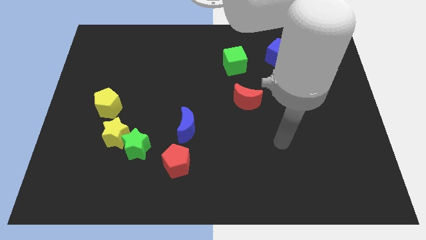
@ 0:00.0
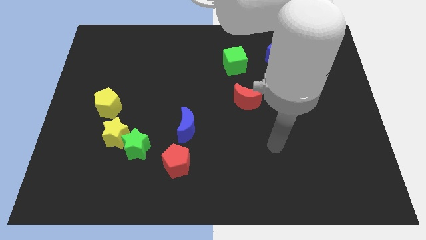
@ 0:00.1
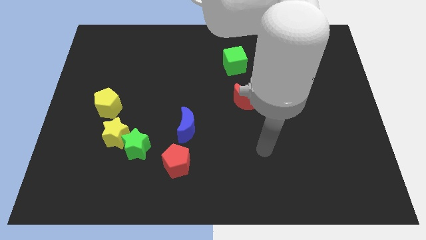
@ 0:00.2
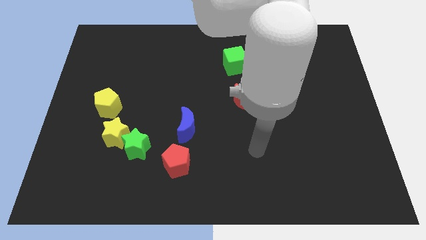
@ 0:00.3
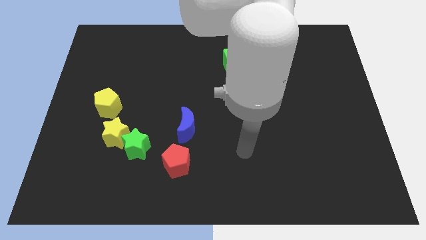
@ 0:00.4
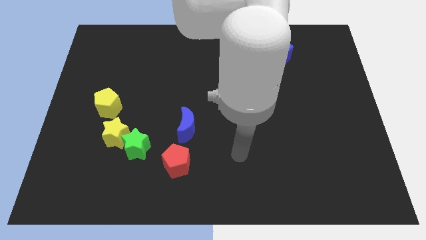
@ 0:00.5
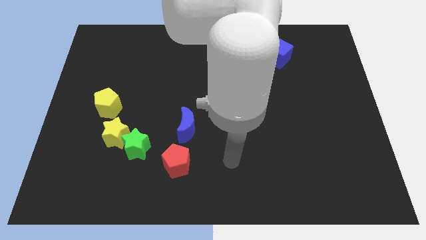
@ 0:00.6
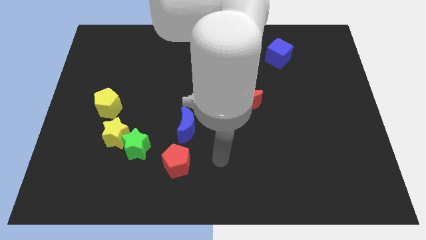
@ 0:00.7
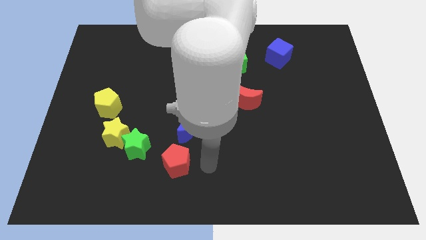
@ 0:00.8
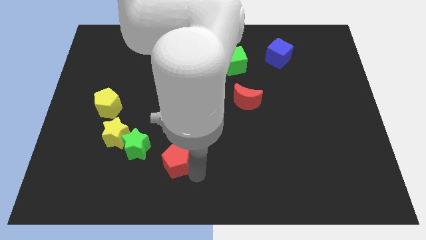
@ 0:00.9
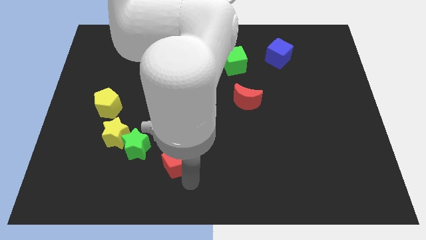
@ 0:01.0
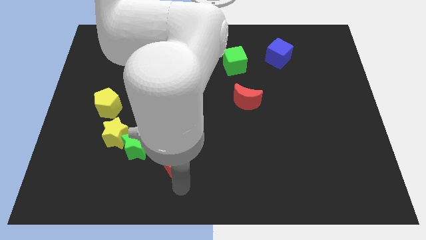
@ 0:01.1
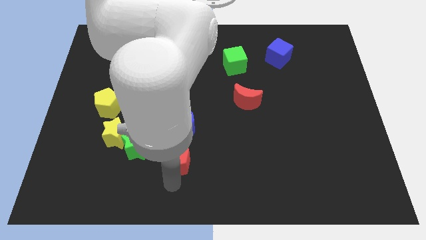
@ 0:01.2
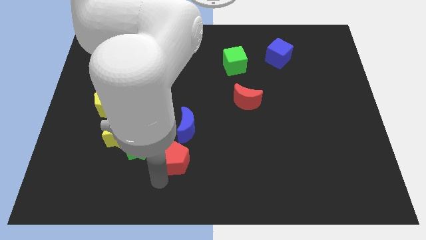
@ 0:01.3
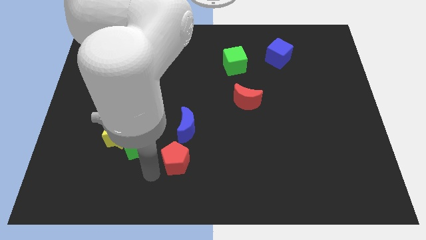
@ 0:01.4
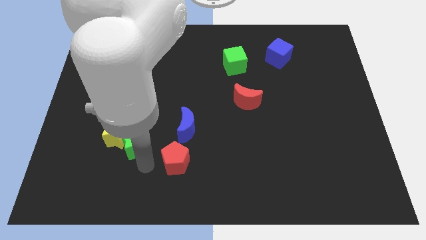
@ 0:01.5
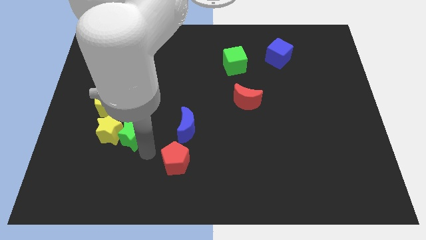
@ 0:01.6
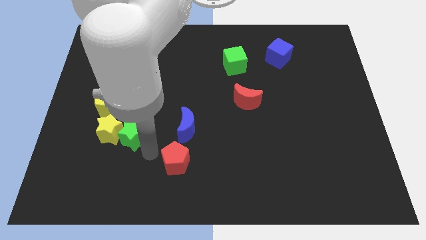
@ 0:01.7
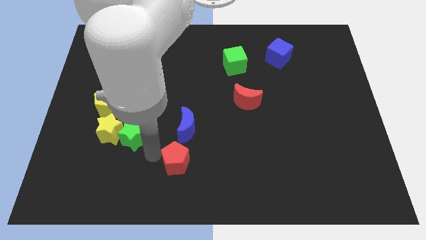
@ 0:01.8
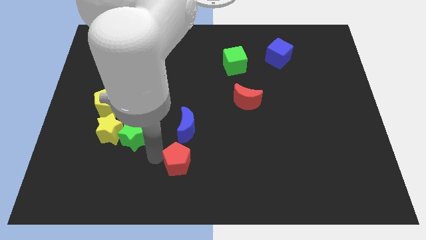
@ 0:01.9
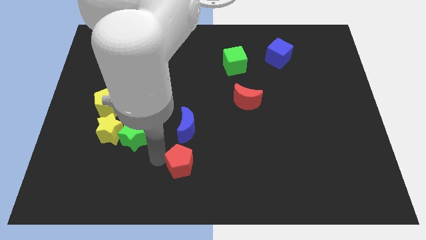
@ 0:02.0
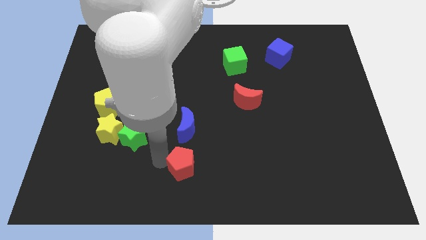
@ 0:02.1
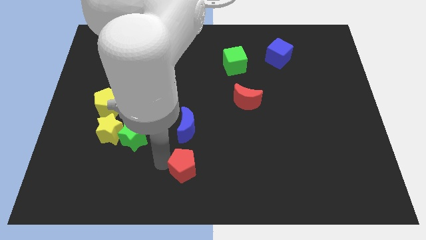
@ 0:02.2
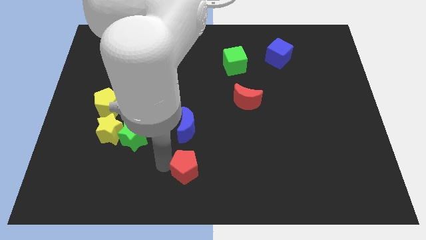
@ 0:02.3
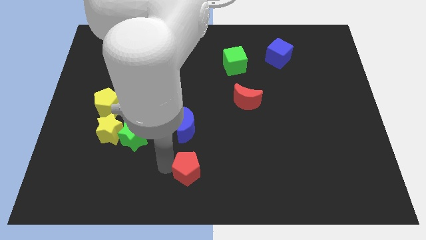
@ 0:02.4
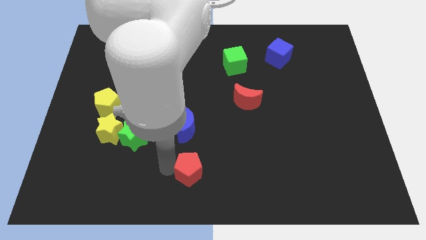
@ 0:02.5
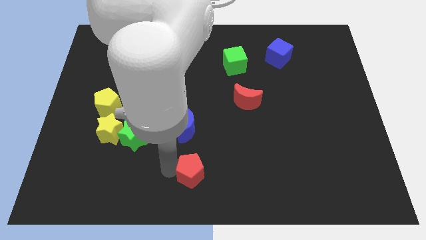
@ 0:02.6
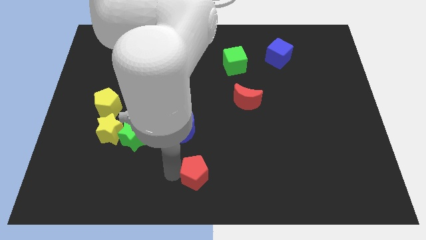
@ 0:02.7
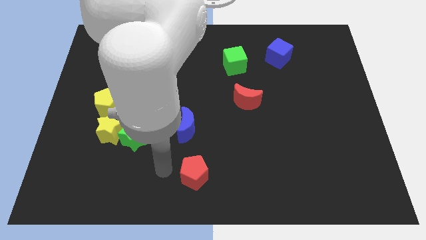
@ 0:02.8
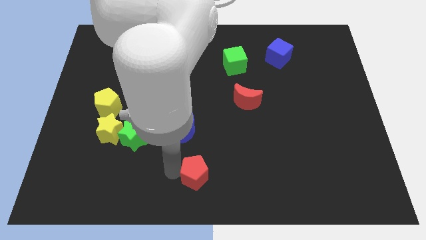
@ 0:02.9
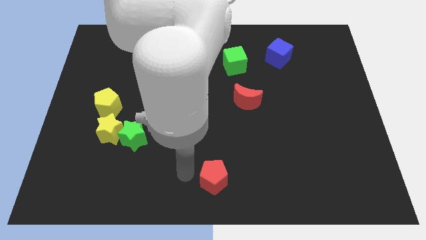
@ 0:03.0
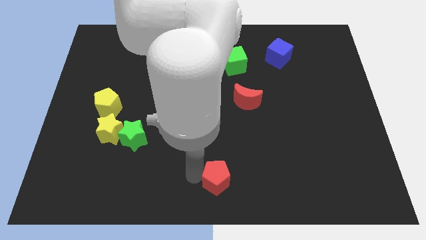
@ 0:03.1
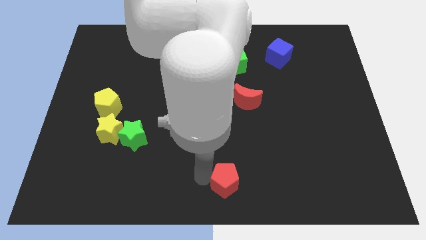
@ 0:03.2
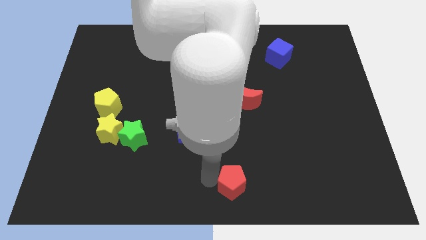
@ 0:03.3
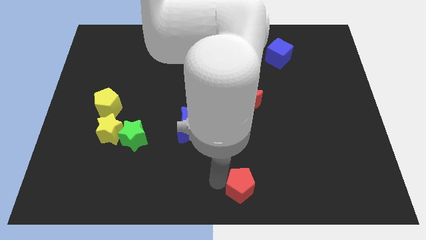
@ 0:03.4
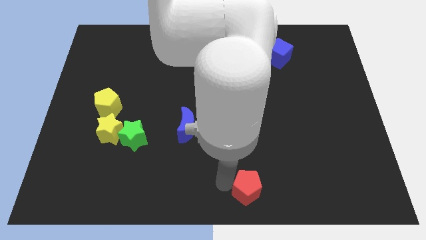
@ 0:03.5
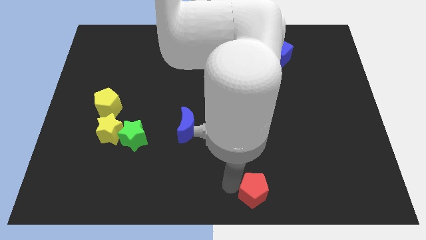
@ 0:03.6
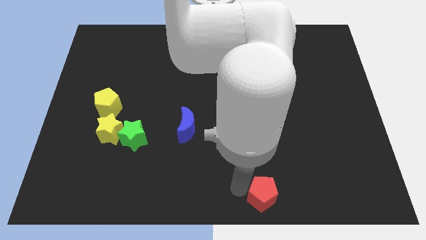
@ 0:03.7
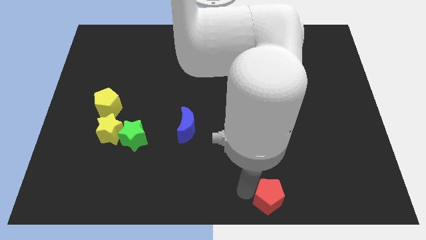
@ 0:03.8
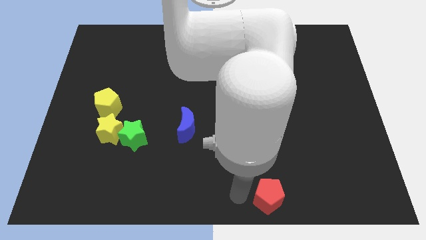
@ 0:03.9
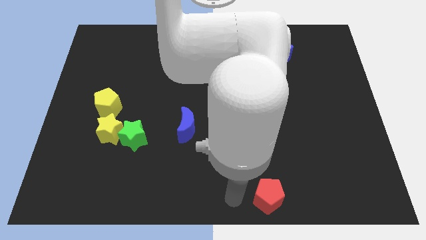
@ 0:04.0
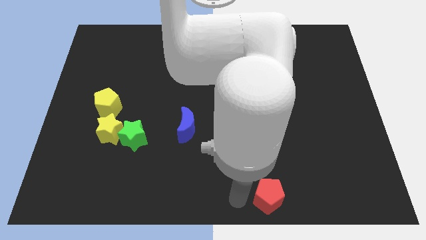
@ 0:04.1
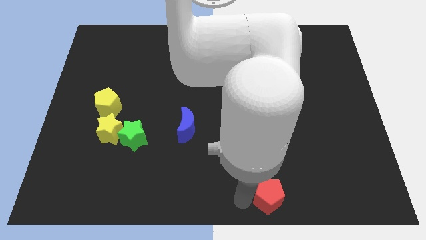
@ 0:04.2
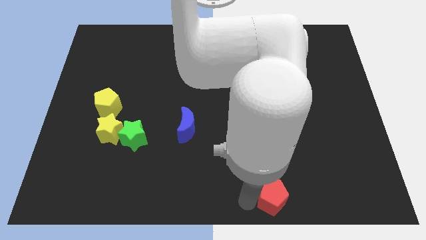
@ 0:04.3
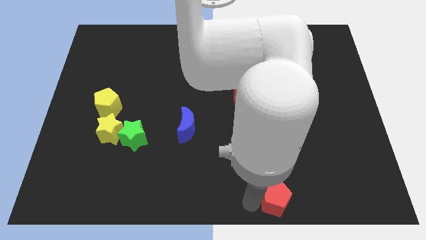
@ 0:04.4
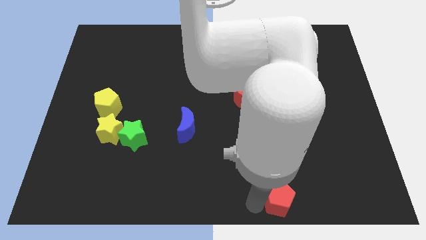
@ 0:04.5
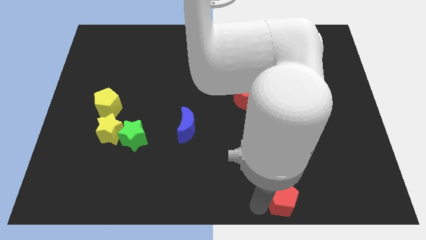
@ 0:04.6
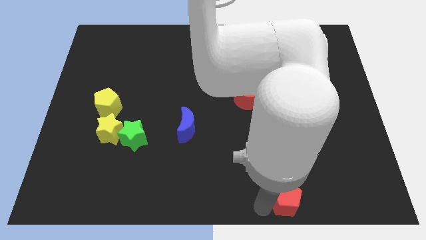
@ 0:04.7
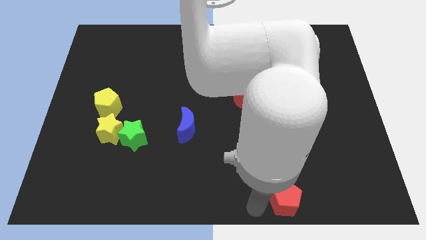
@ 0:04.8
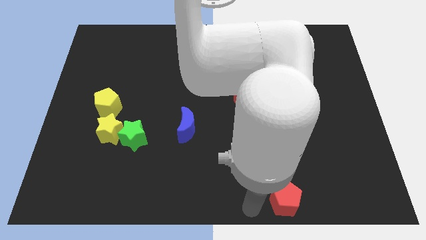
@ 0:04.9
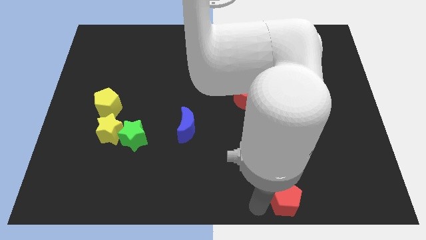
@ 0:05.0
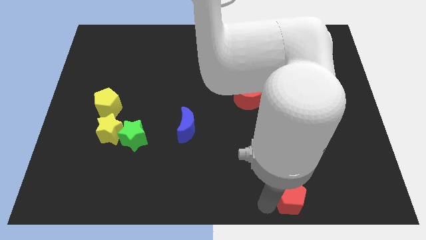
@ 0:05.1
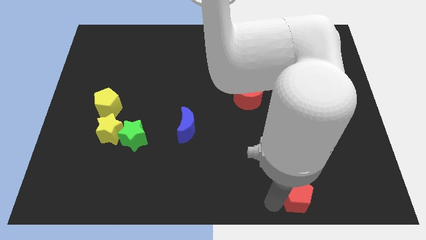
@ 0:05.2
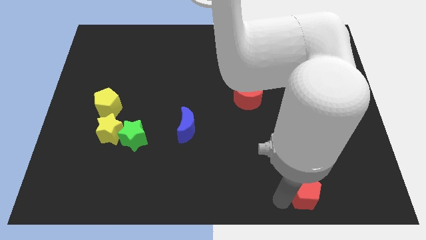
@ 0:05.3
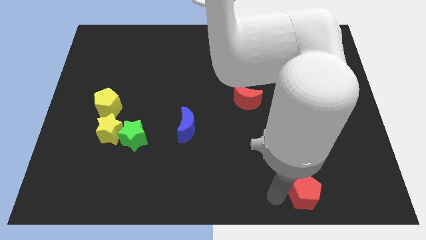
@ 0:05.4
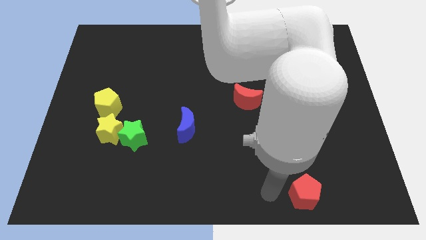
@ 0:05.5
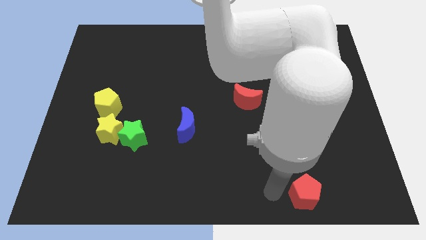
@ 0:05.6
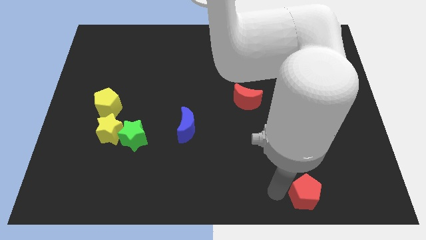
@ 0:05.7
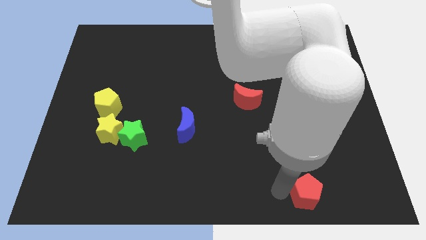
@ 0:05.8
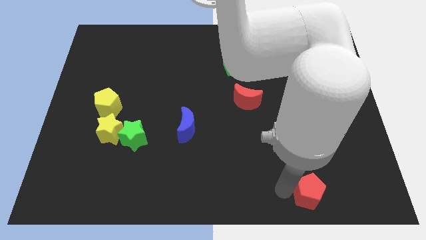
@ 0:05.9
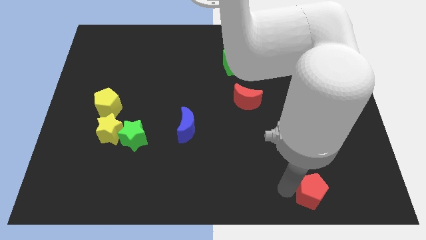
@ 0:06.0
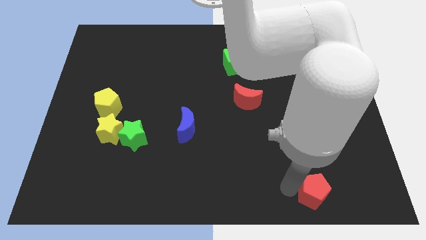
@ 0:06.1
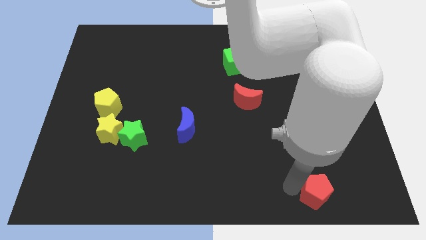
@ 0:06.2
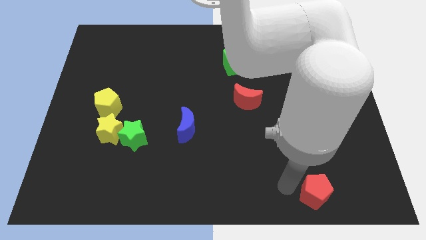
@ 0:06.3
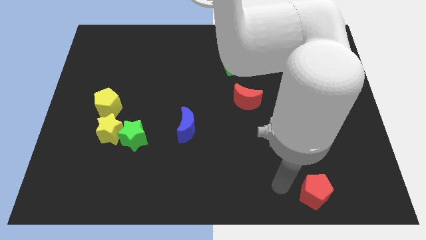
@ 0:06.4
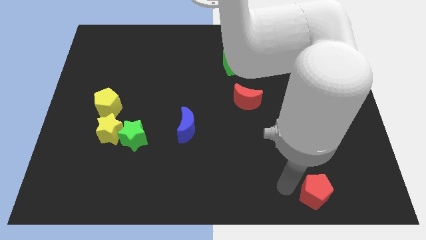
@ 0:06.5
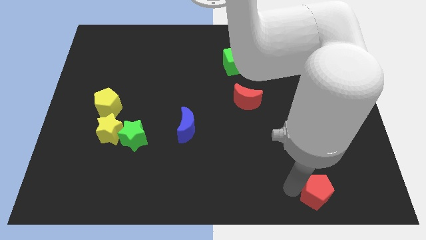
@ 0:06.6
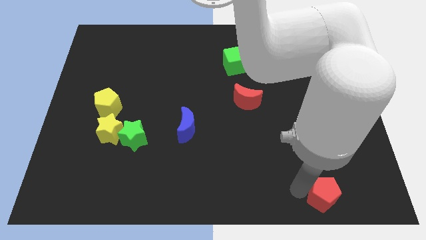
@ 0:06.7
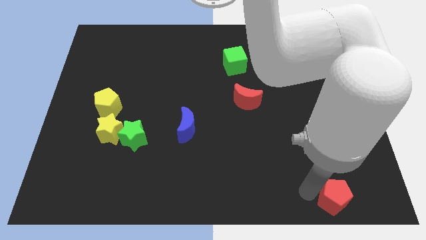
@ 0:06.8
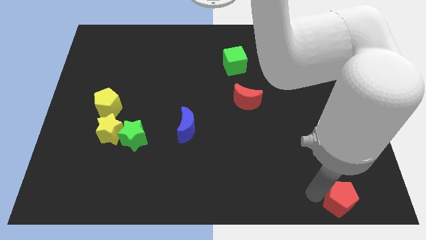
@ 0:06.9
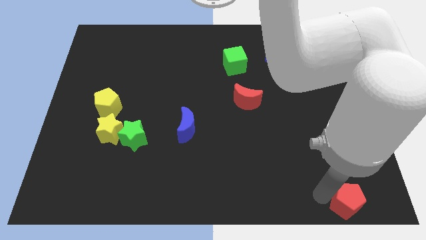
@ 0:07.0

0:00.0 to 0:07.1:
slide the red pentagon to the lower right corner
